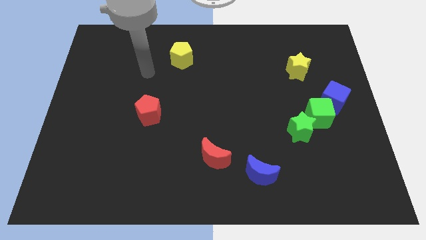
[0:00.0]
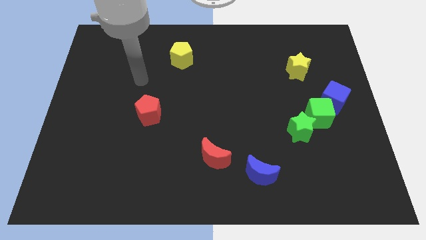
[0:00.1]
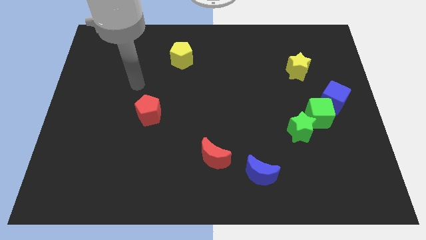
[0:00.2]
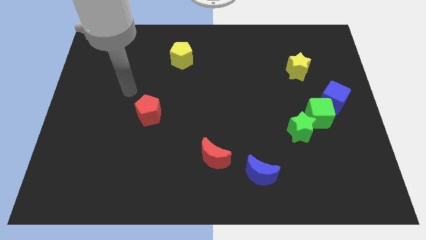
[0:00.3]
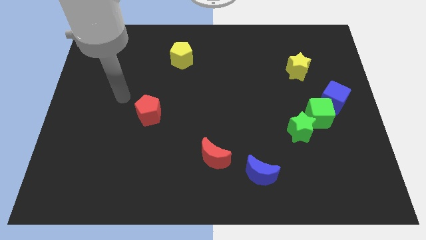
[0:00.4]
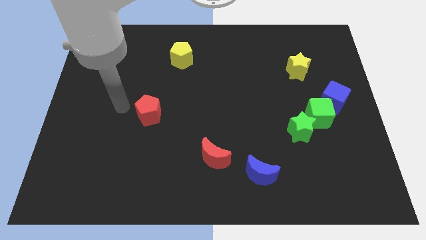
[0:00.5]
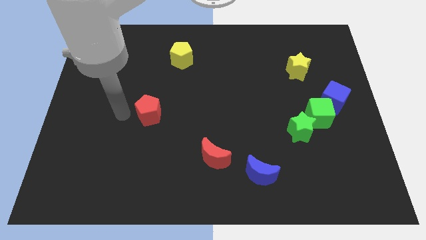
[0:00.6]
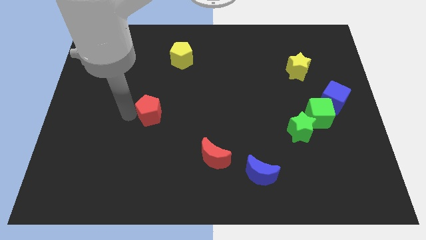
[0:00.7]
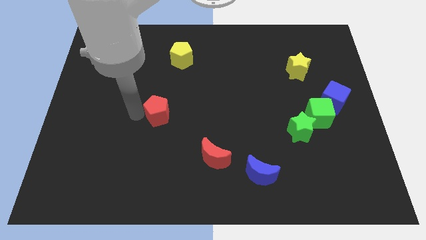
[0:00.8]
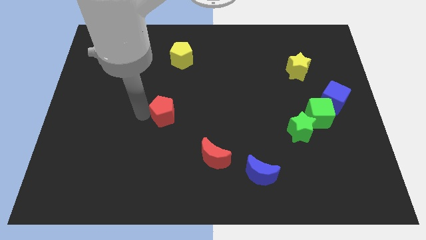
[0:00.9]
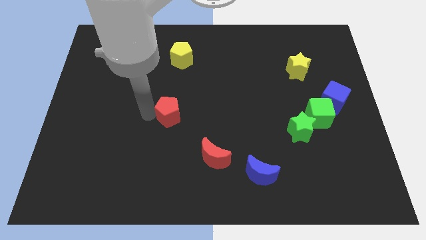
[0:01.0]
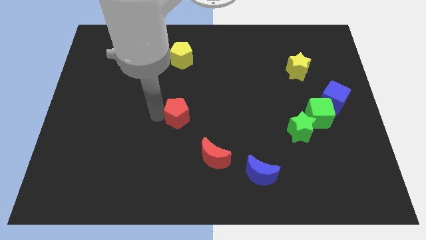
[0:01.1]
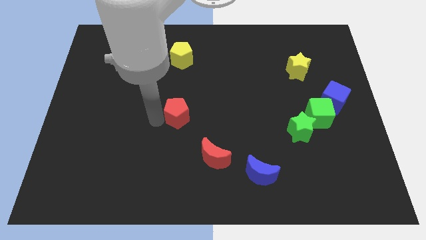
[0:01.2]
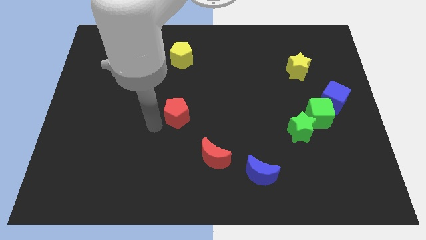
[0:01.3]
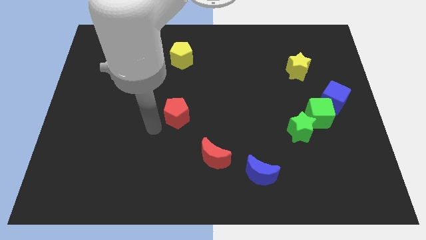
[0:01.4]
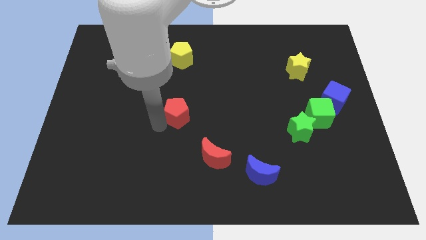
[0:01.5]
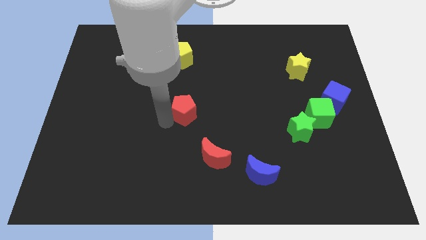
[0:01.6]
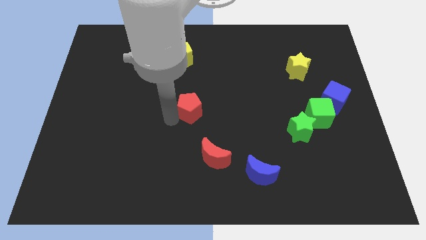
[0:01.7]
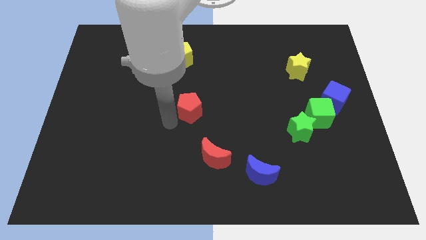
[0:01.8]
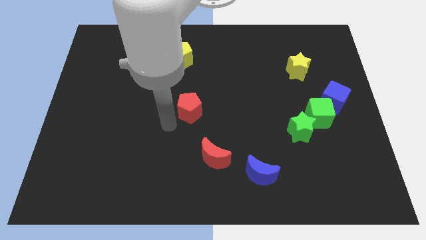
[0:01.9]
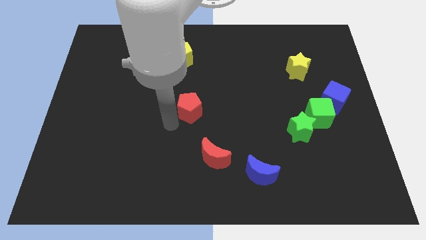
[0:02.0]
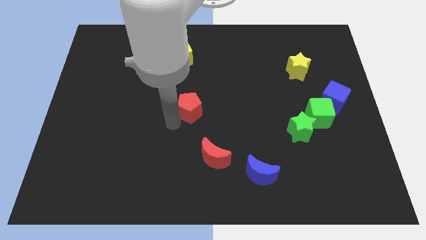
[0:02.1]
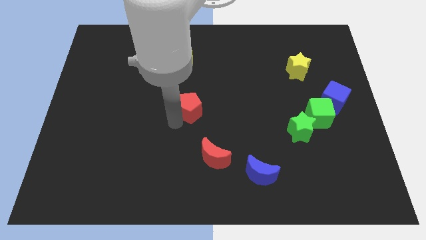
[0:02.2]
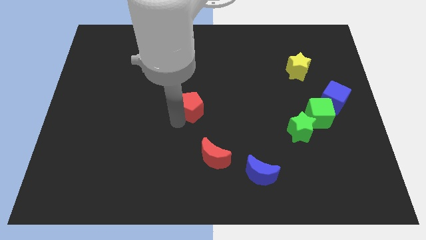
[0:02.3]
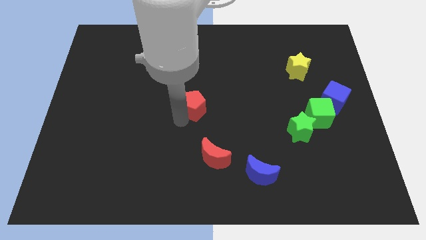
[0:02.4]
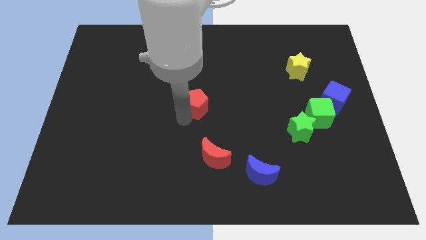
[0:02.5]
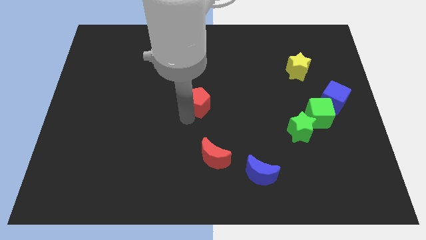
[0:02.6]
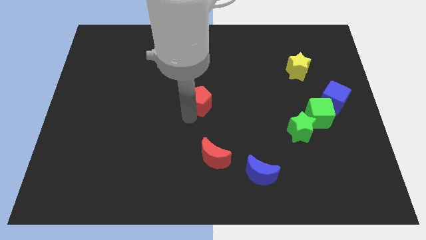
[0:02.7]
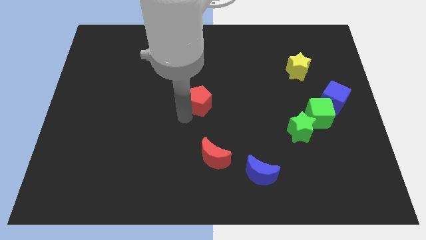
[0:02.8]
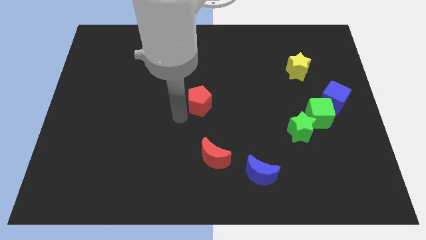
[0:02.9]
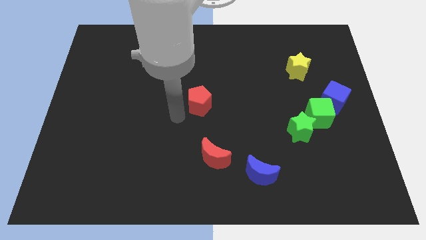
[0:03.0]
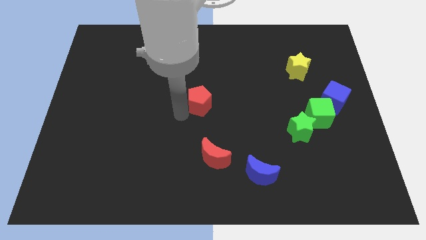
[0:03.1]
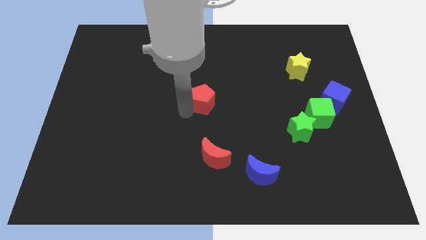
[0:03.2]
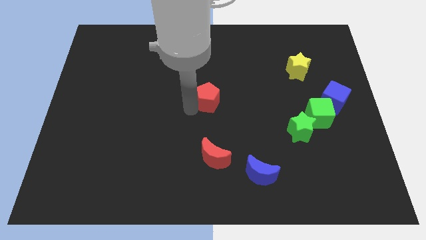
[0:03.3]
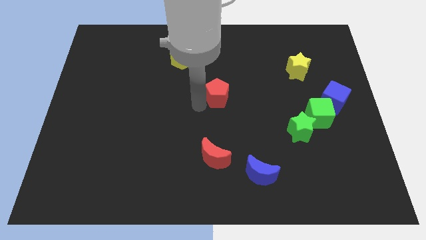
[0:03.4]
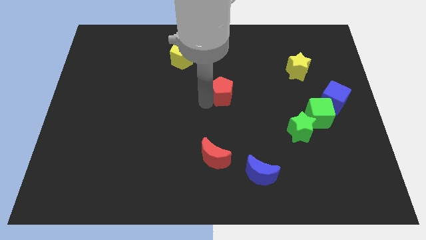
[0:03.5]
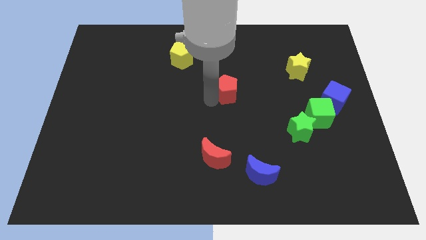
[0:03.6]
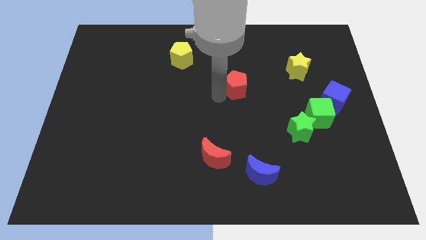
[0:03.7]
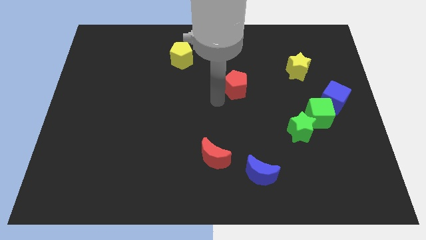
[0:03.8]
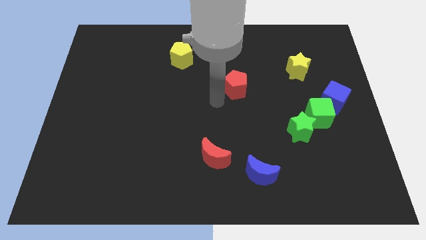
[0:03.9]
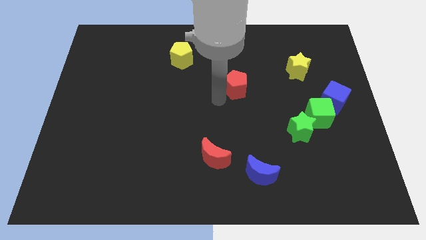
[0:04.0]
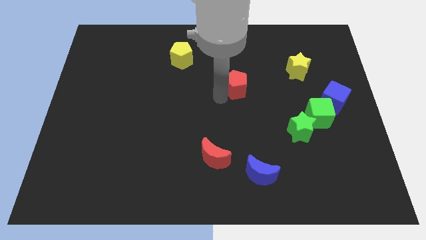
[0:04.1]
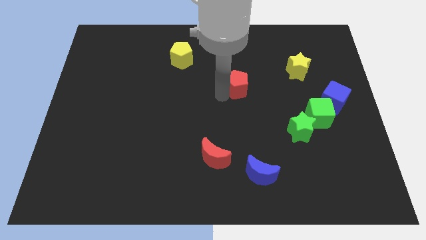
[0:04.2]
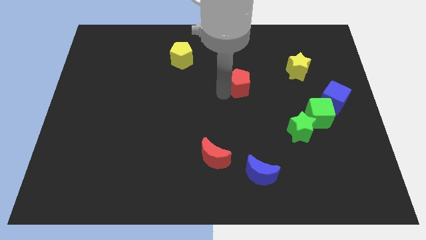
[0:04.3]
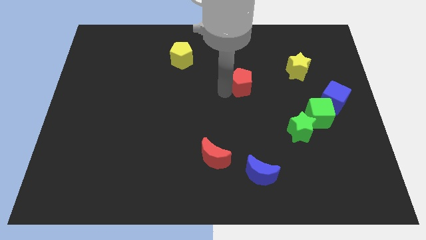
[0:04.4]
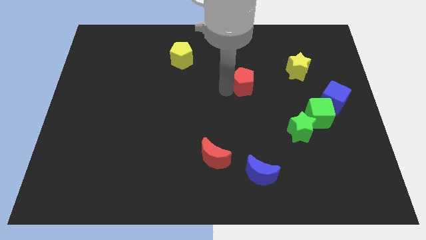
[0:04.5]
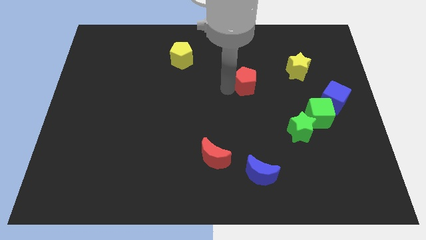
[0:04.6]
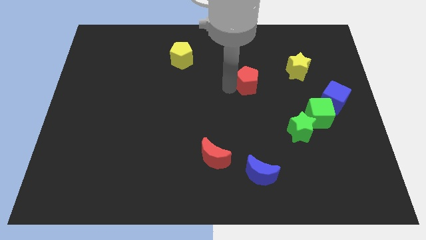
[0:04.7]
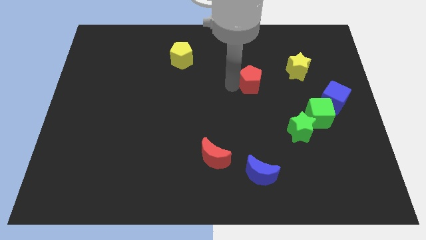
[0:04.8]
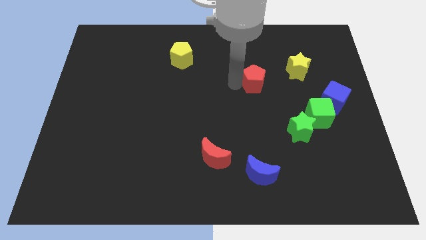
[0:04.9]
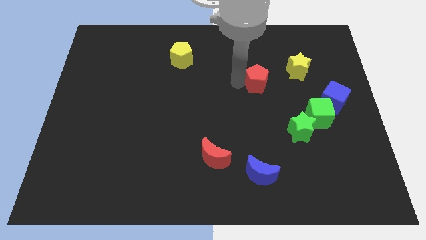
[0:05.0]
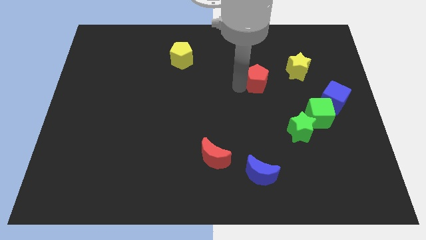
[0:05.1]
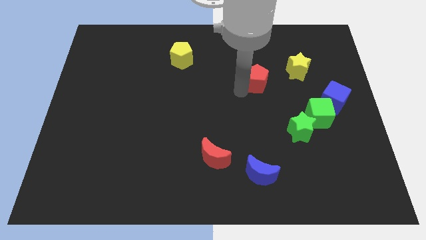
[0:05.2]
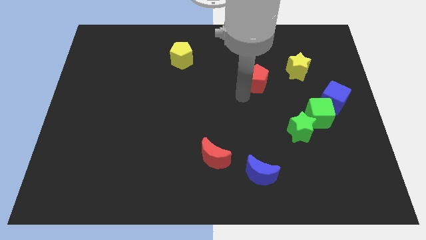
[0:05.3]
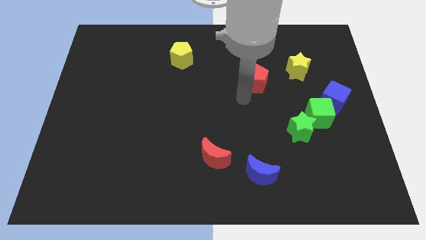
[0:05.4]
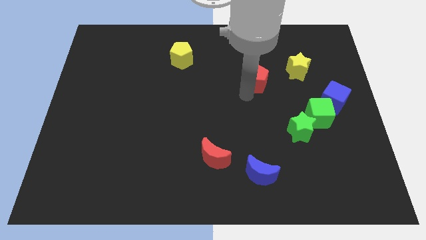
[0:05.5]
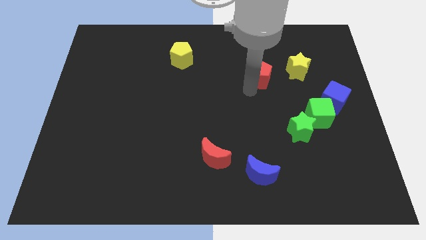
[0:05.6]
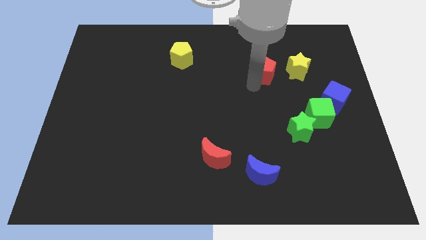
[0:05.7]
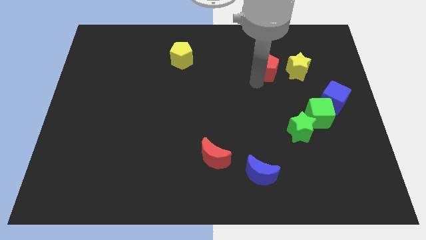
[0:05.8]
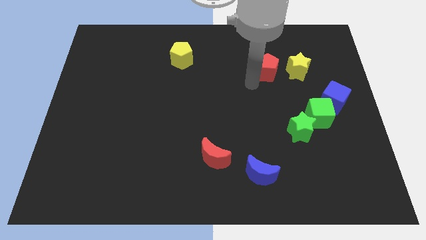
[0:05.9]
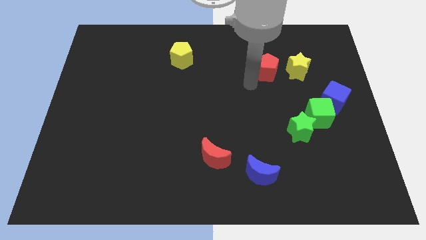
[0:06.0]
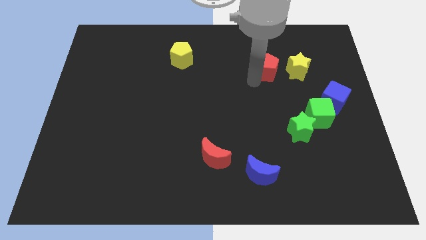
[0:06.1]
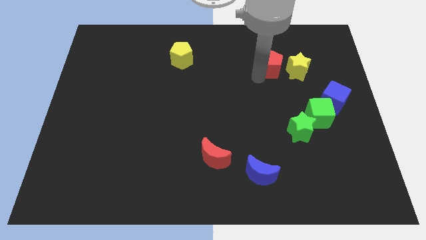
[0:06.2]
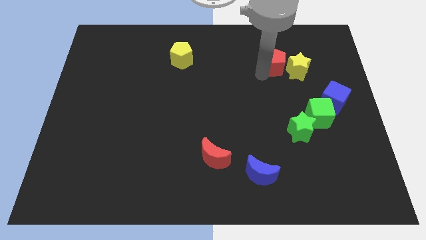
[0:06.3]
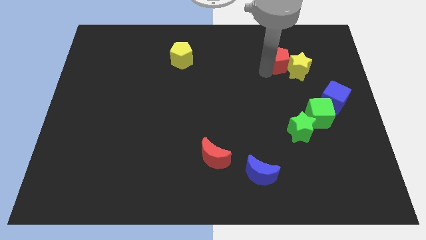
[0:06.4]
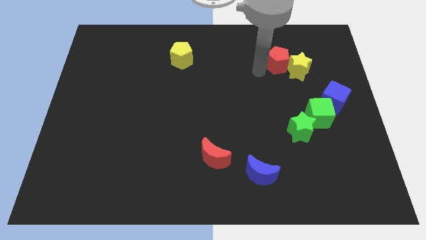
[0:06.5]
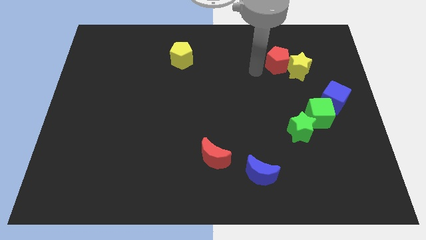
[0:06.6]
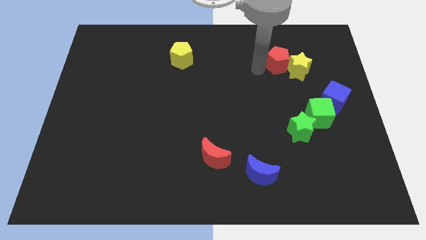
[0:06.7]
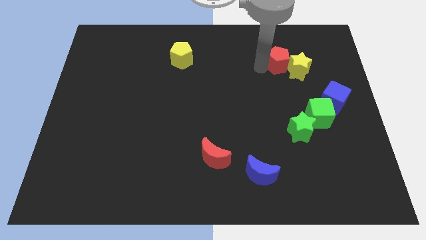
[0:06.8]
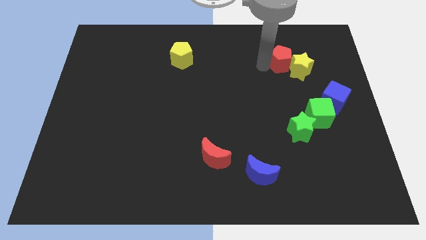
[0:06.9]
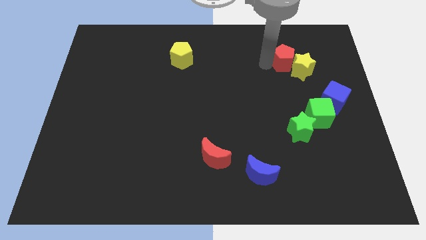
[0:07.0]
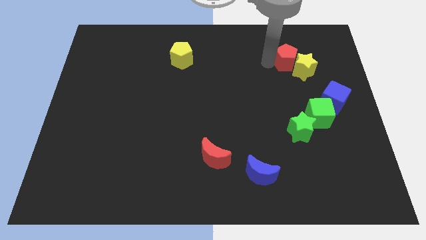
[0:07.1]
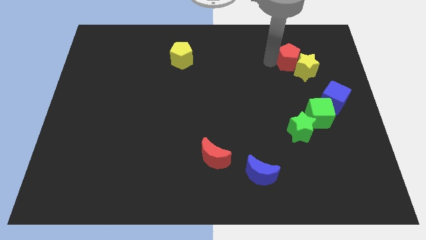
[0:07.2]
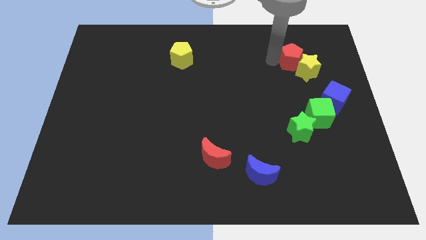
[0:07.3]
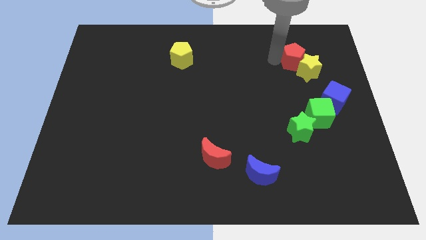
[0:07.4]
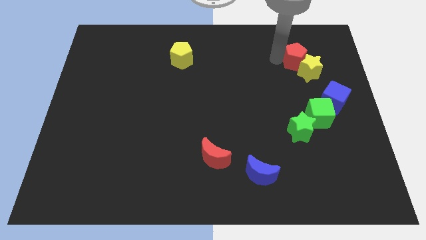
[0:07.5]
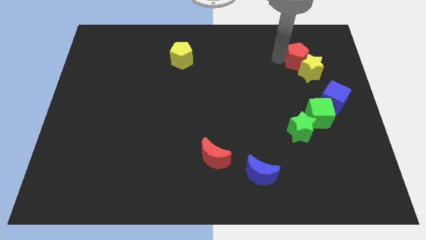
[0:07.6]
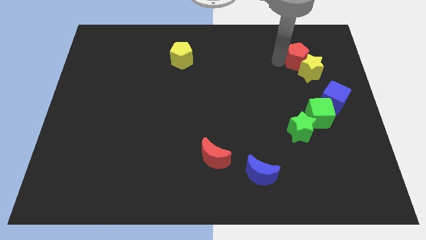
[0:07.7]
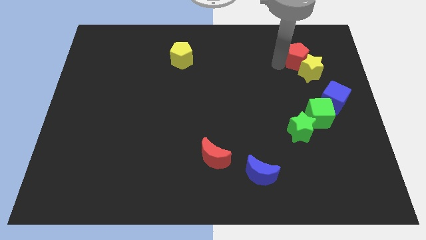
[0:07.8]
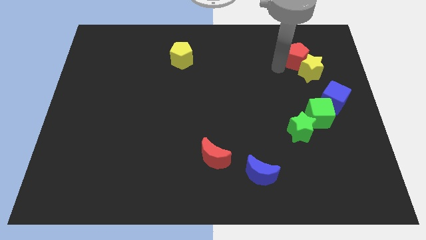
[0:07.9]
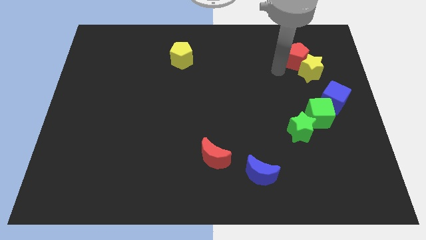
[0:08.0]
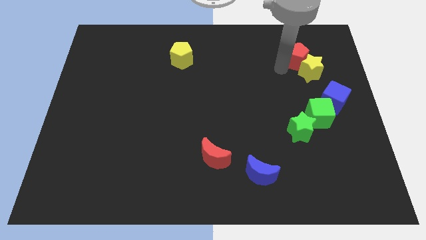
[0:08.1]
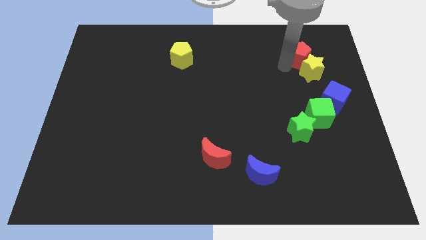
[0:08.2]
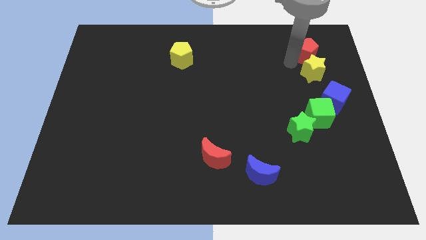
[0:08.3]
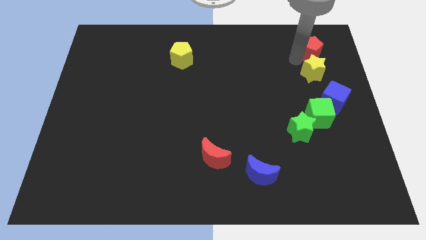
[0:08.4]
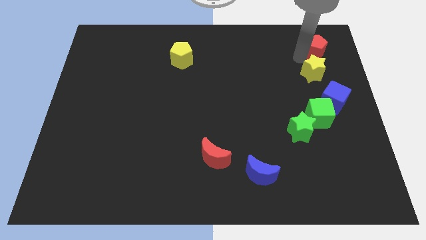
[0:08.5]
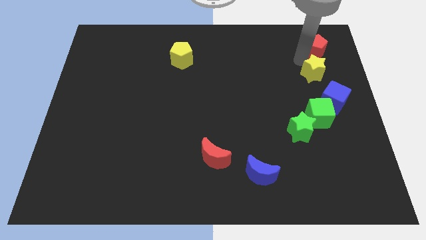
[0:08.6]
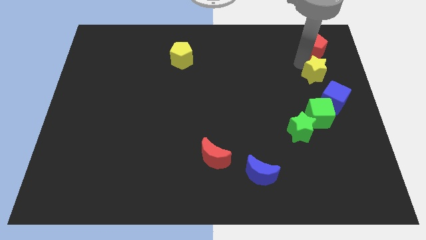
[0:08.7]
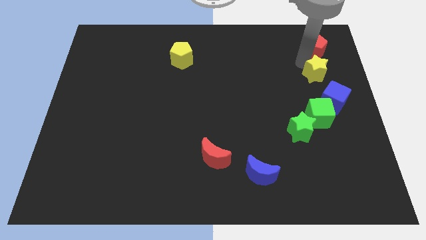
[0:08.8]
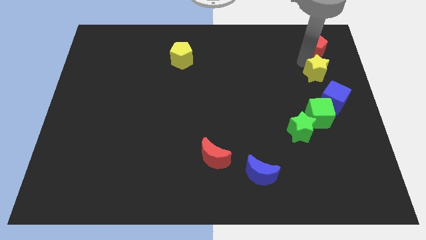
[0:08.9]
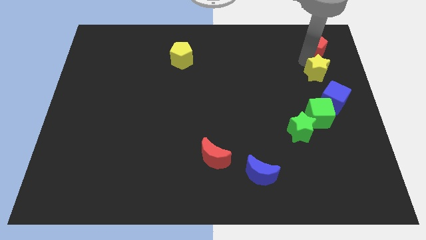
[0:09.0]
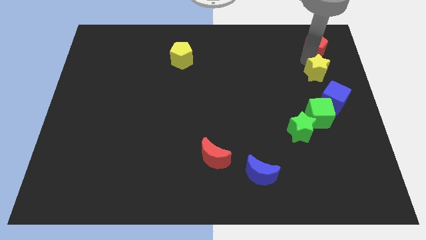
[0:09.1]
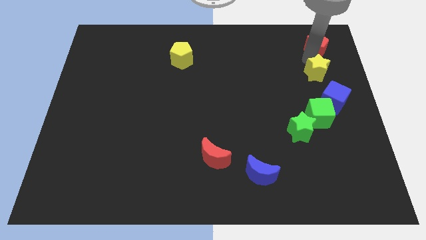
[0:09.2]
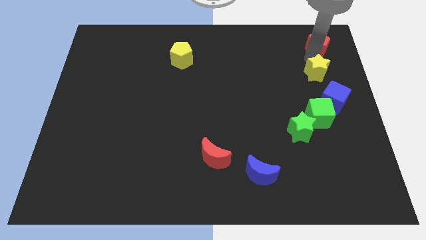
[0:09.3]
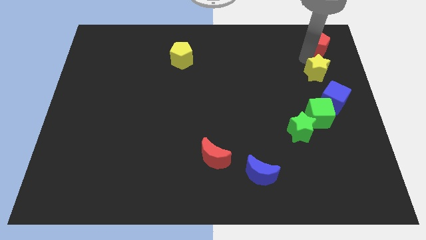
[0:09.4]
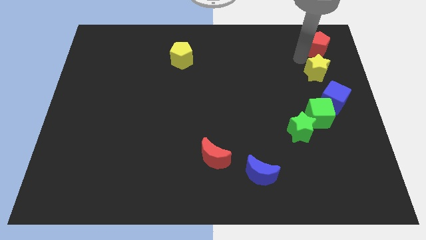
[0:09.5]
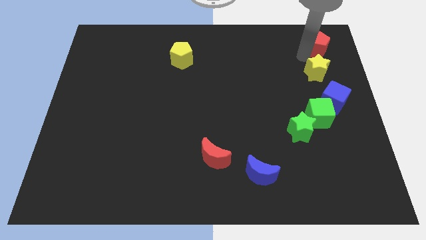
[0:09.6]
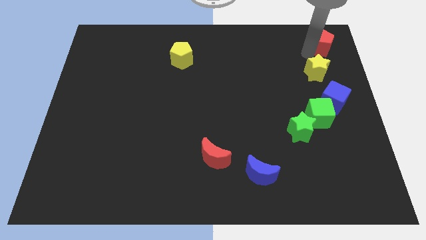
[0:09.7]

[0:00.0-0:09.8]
push the red pentagon to the top right corner
